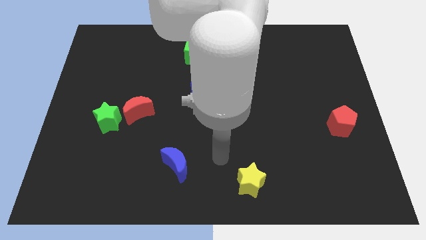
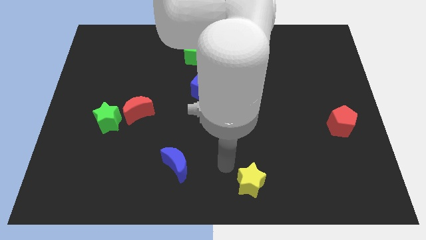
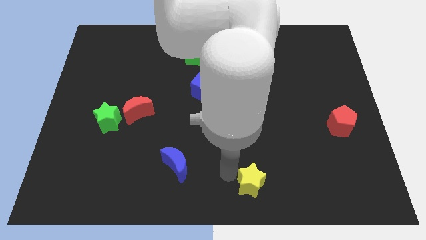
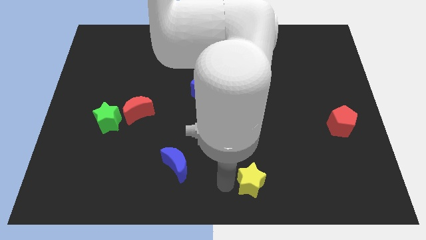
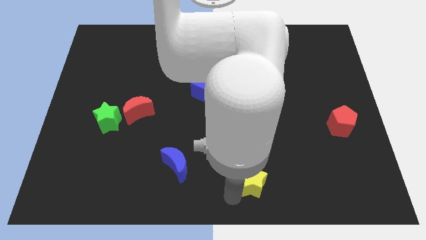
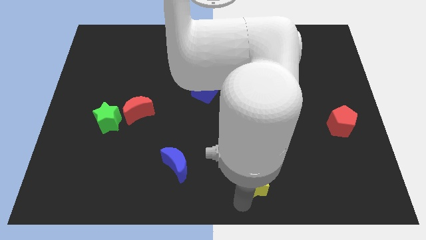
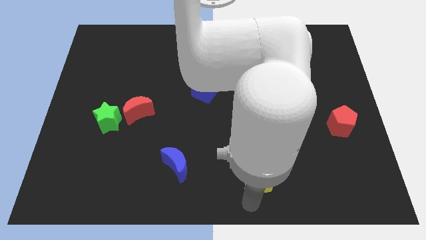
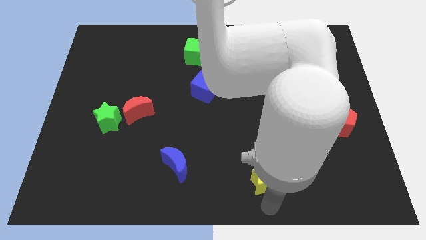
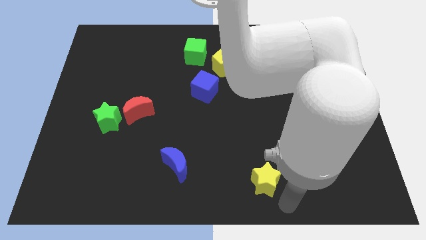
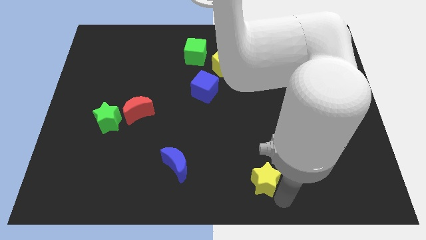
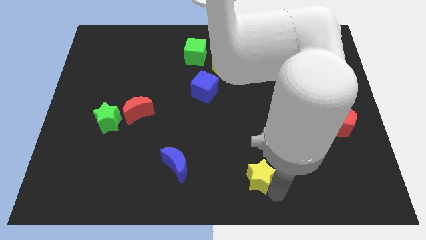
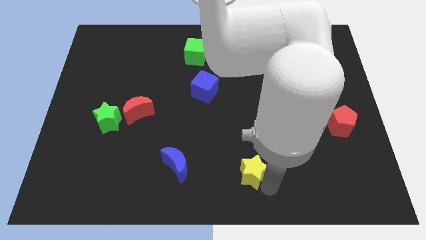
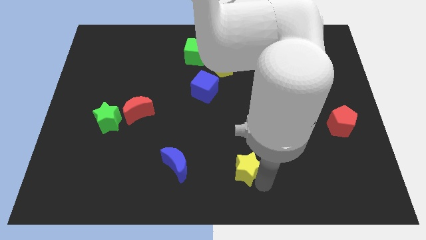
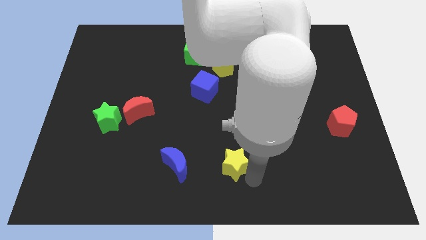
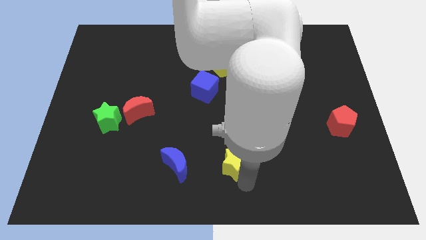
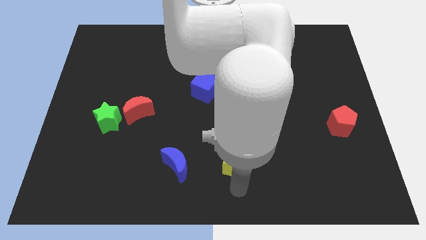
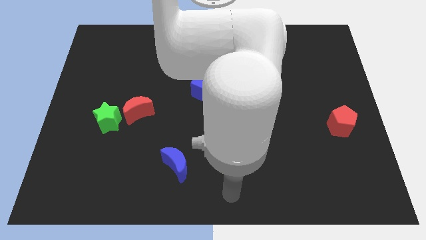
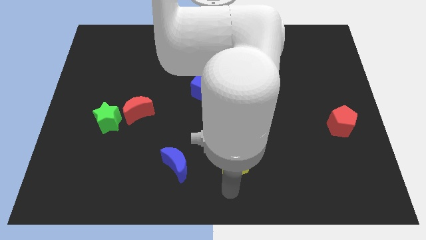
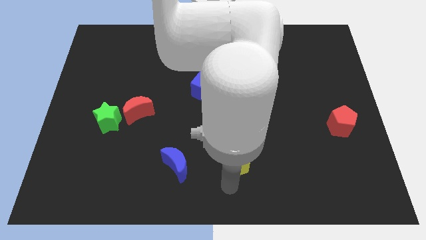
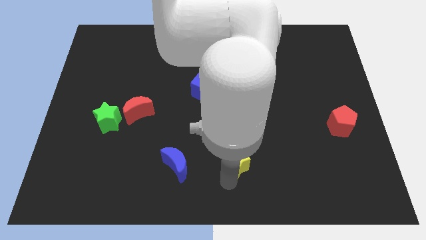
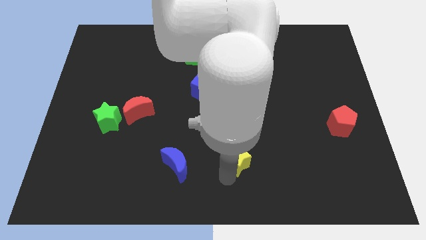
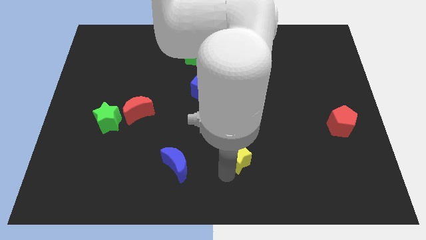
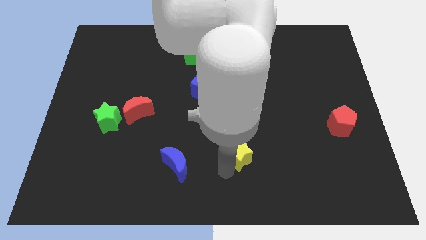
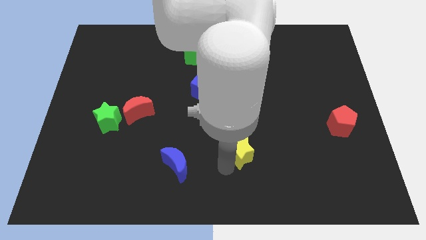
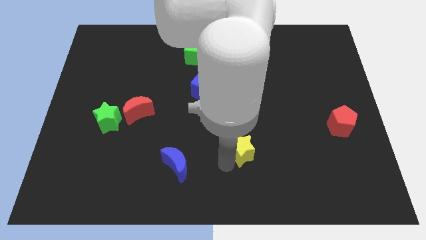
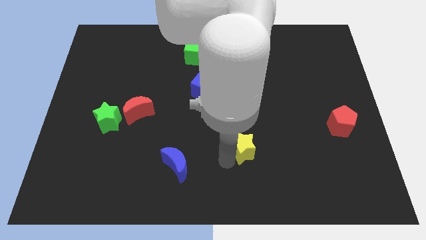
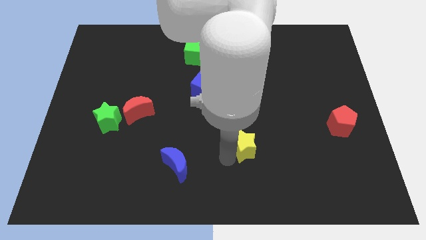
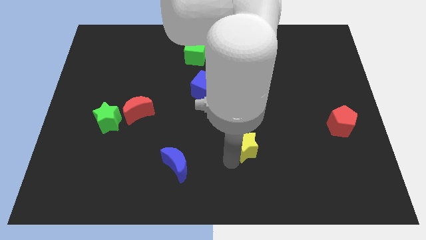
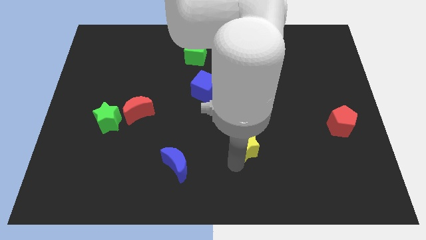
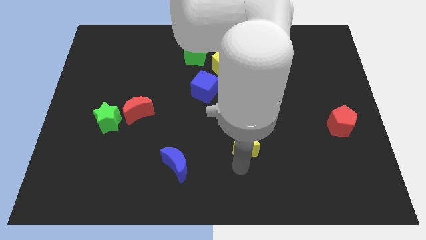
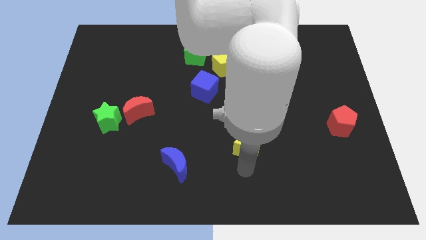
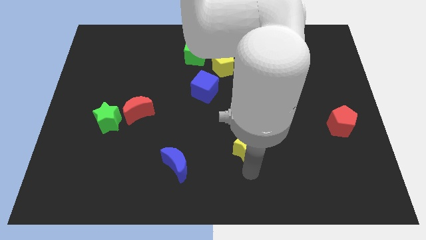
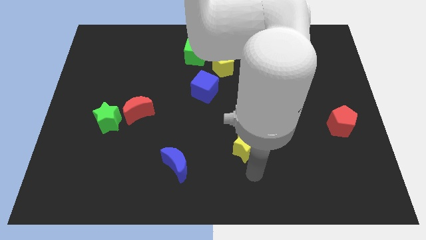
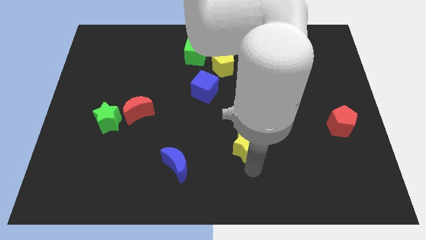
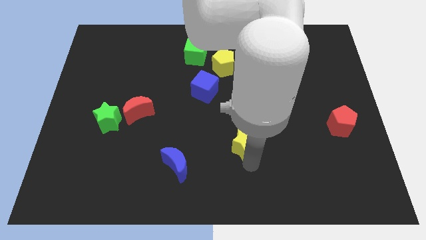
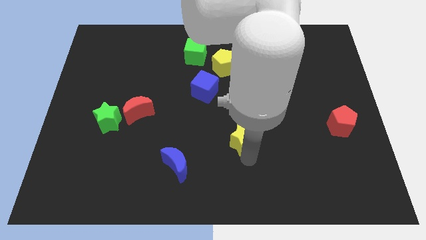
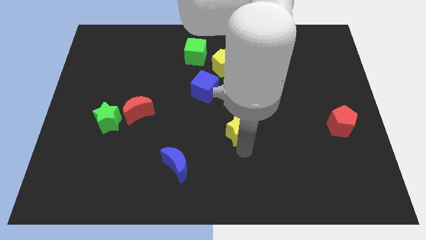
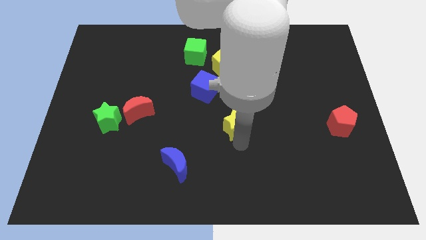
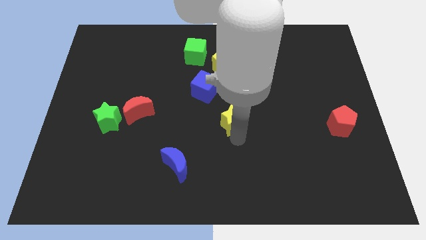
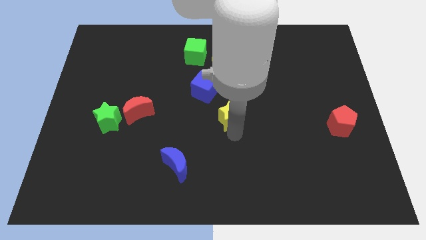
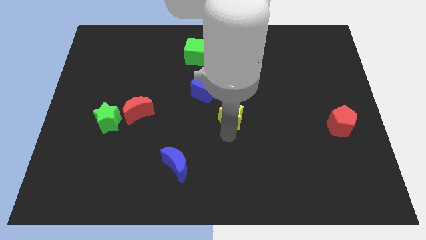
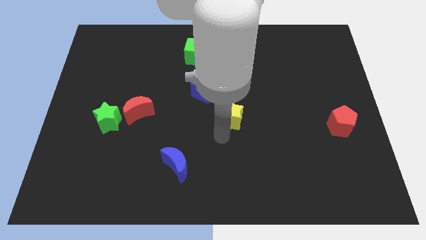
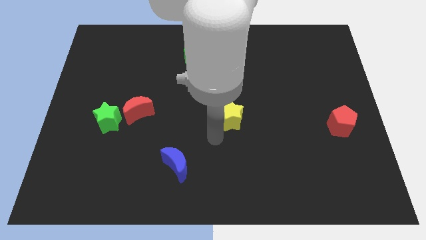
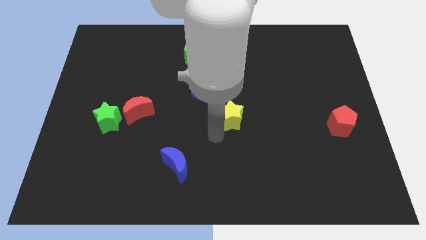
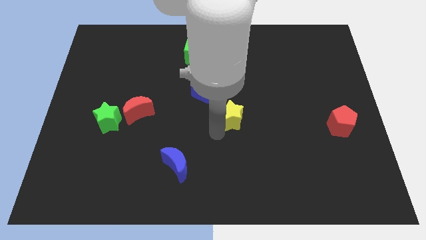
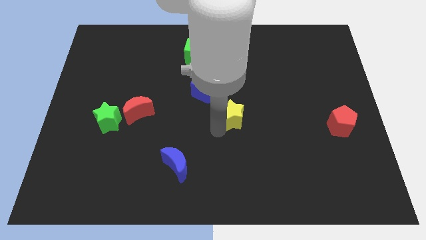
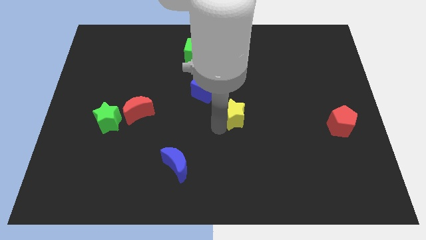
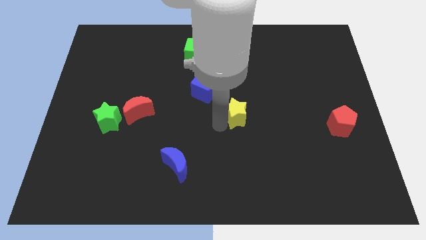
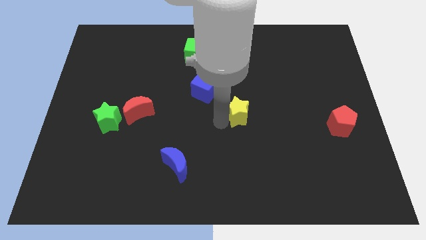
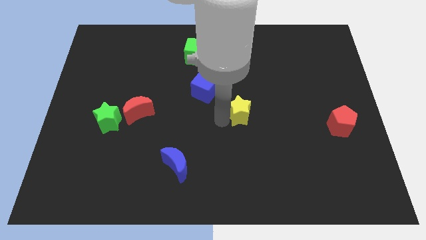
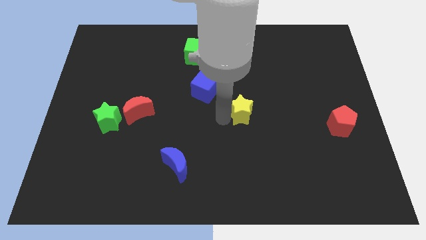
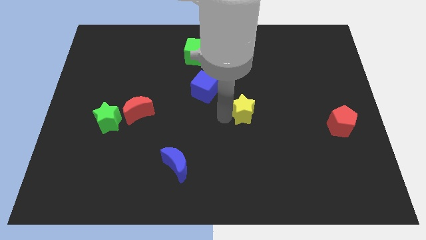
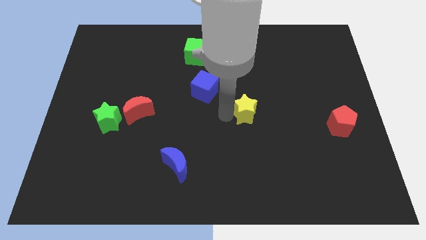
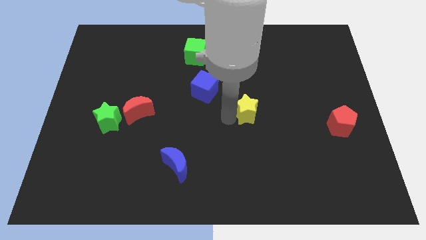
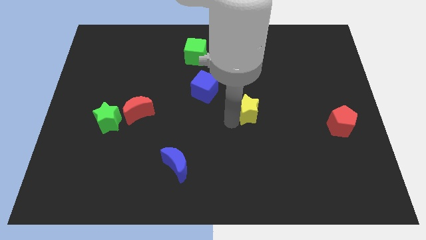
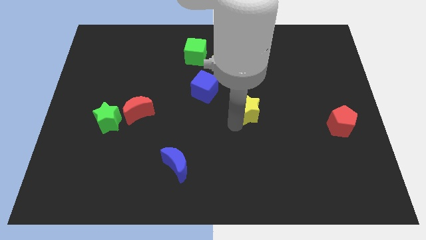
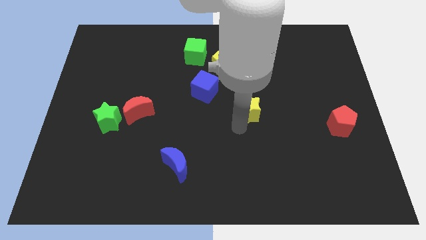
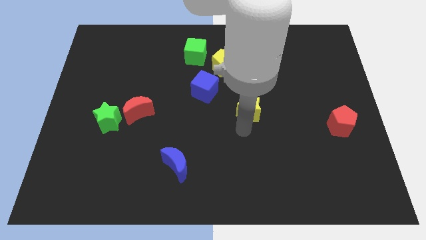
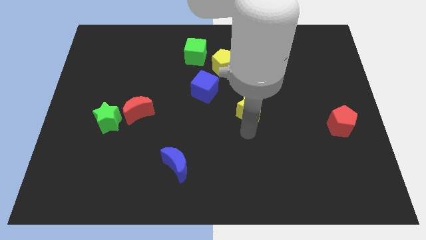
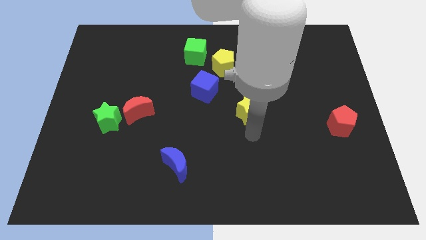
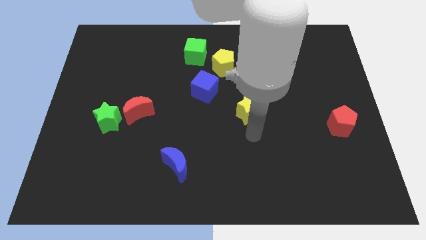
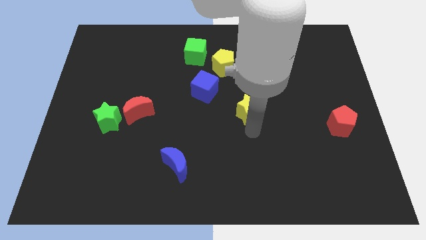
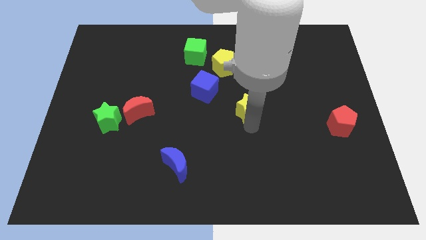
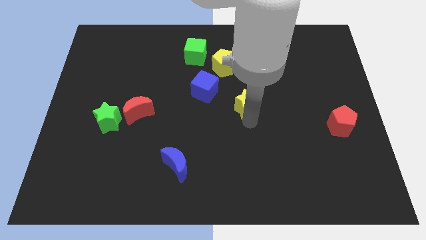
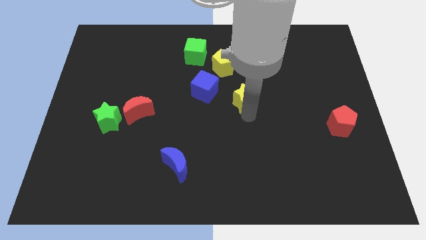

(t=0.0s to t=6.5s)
push the yellow star up

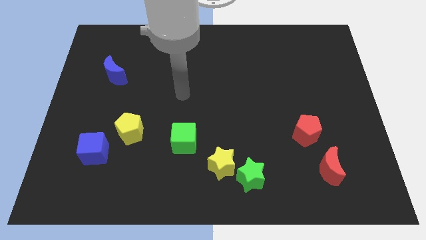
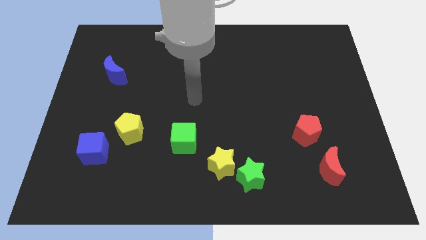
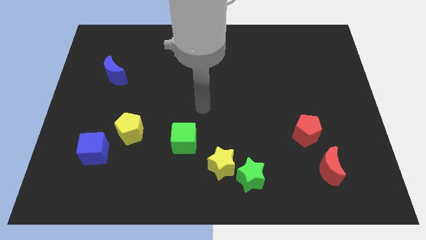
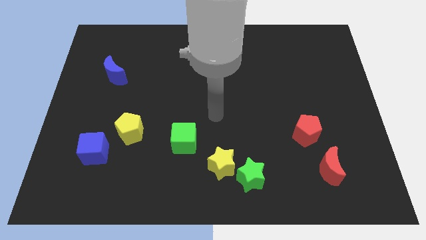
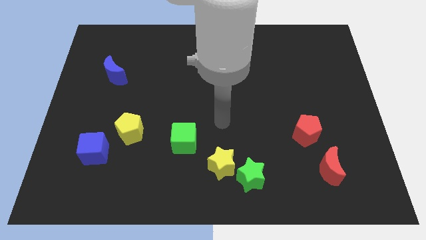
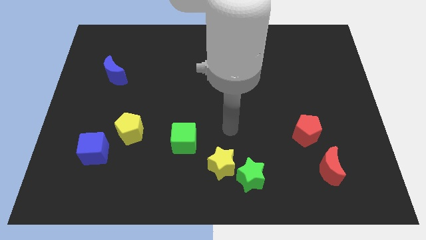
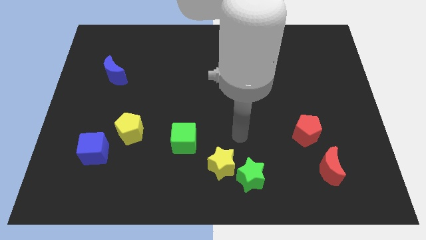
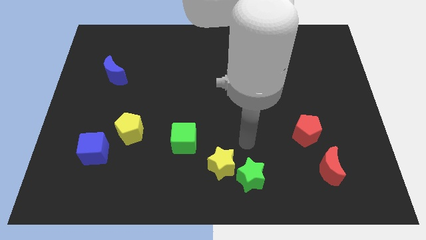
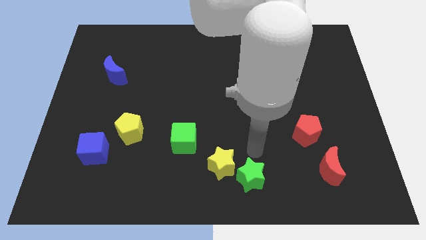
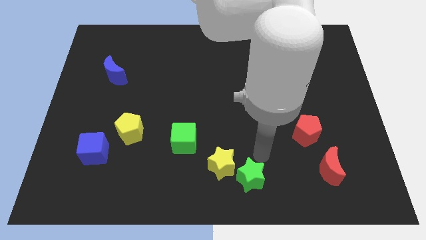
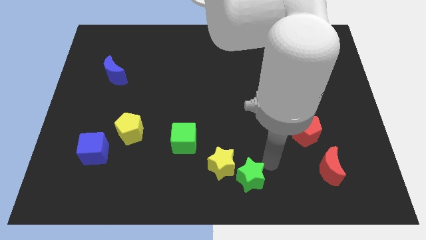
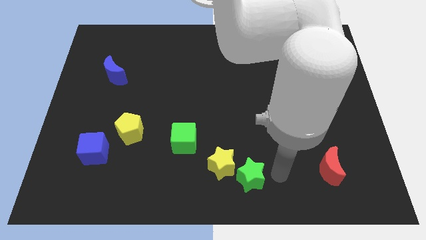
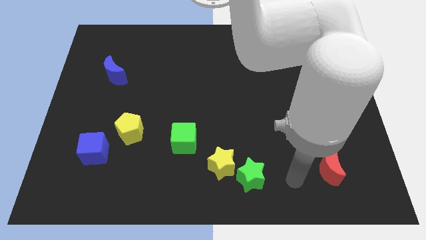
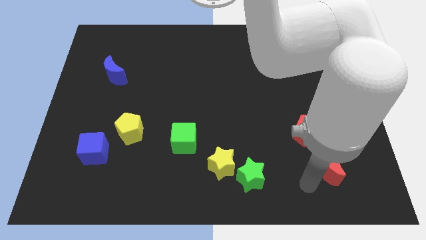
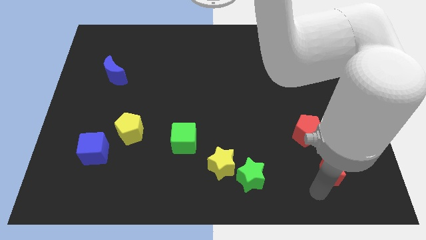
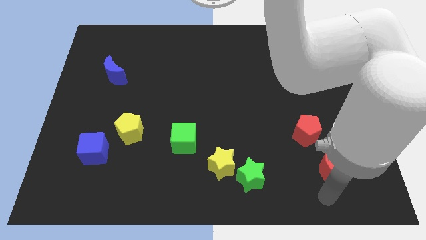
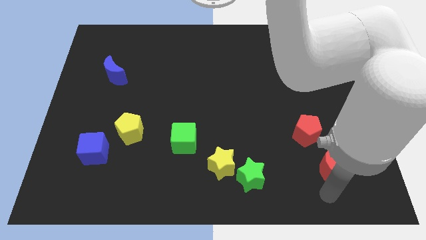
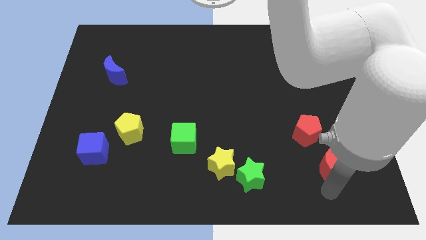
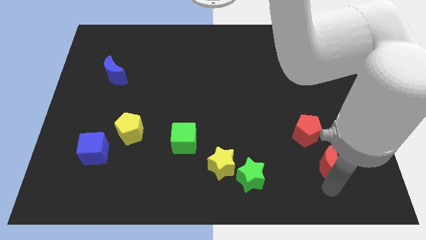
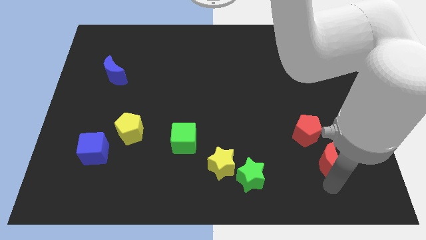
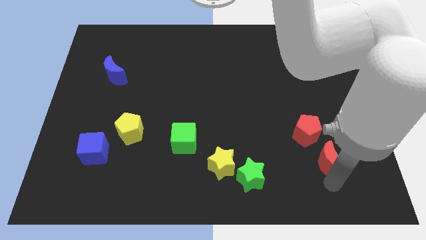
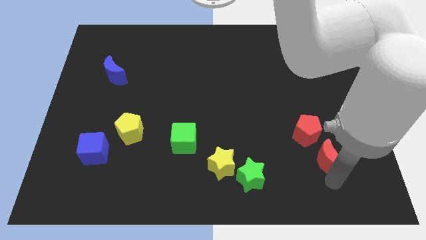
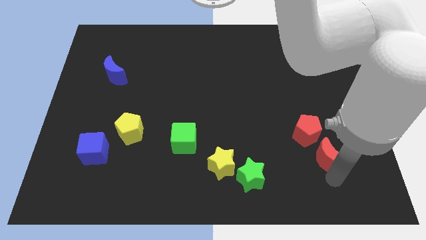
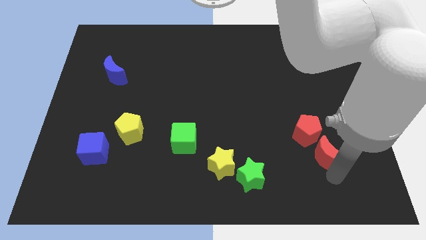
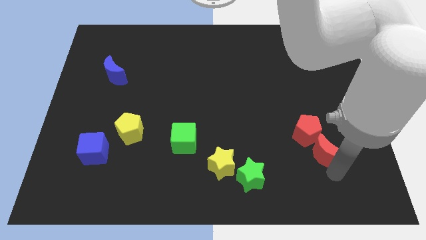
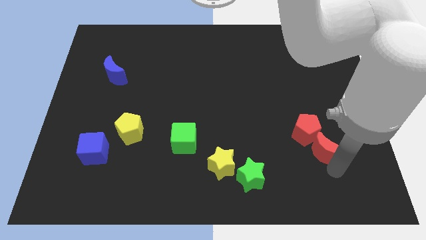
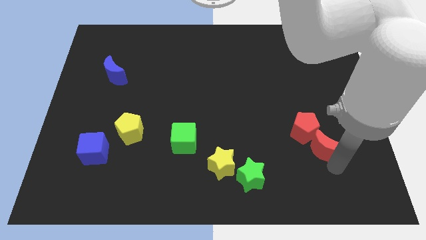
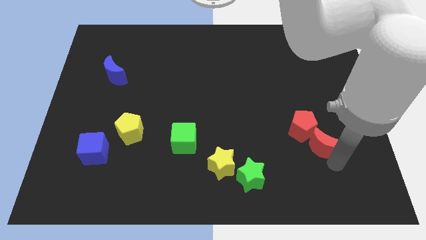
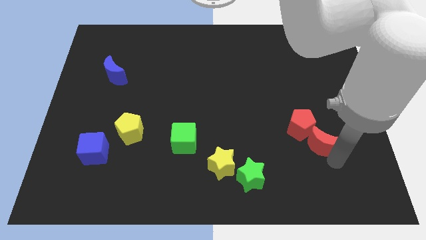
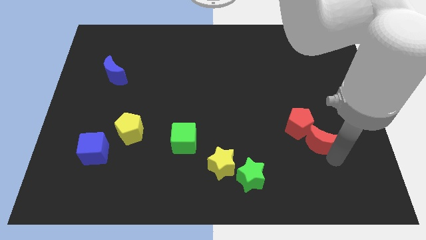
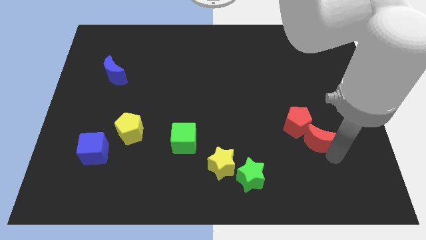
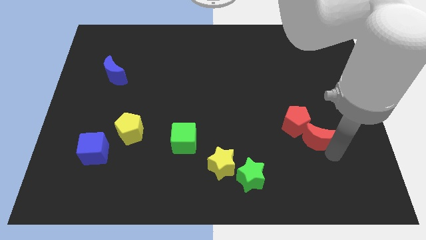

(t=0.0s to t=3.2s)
slide the red moon upwards a little bit
